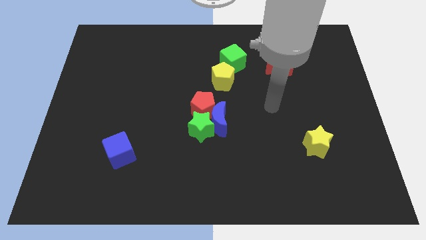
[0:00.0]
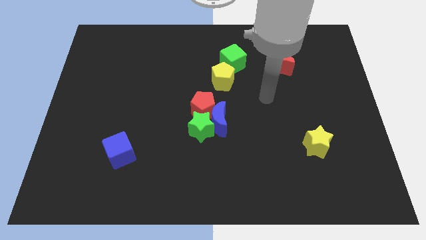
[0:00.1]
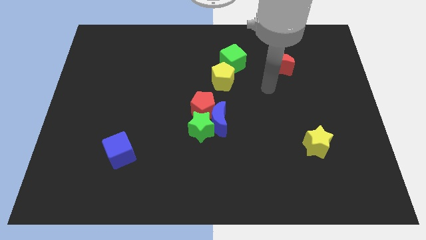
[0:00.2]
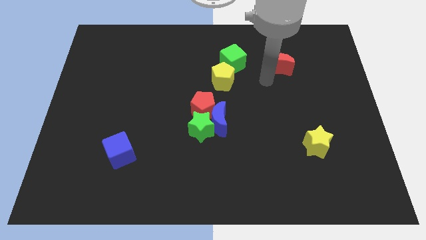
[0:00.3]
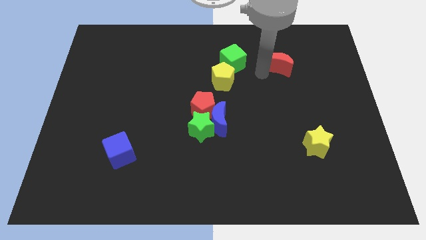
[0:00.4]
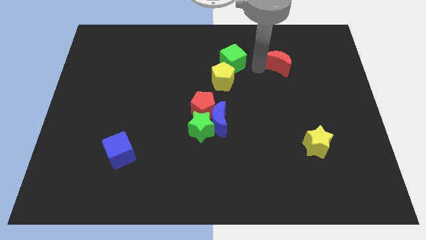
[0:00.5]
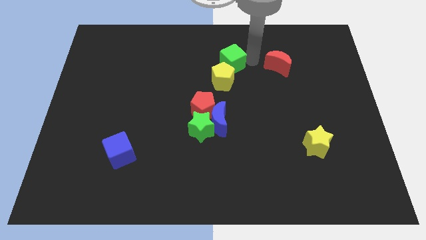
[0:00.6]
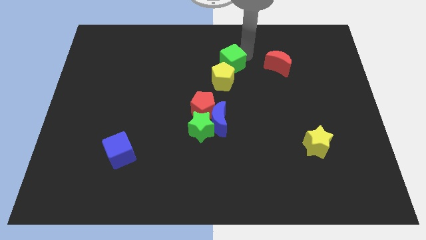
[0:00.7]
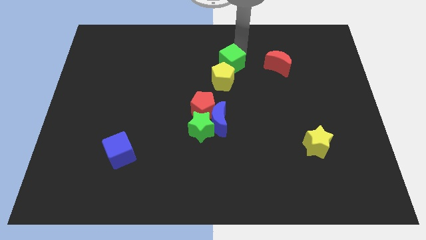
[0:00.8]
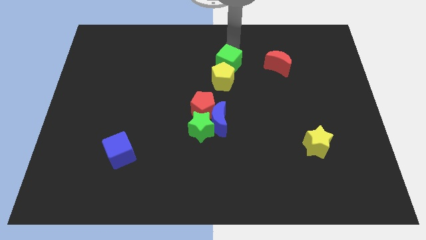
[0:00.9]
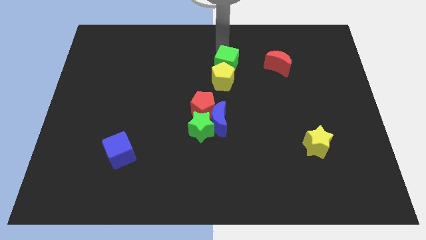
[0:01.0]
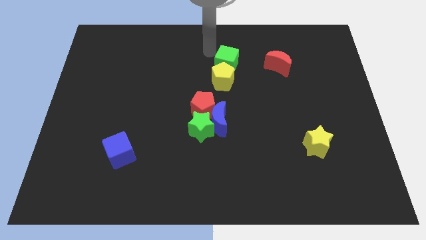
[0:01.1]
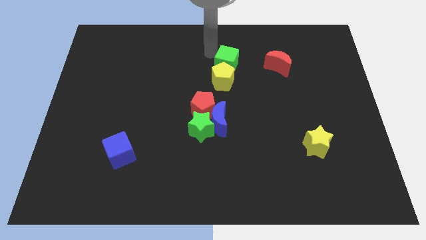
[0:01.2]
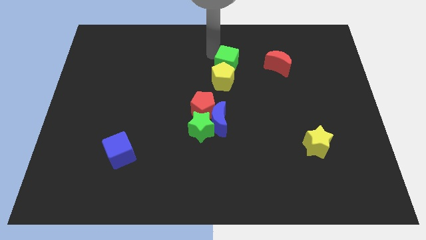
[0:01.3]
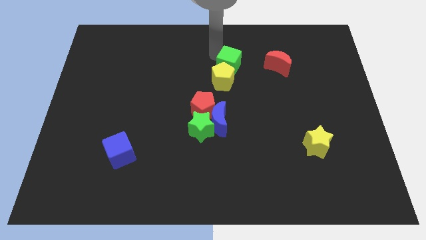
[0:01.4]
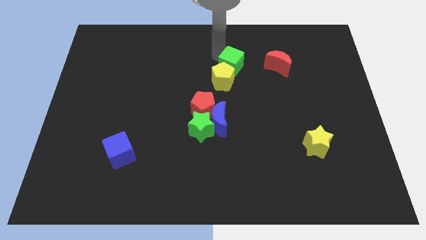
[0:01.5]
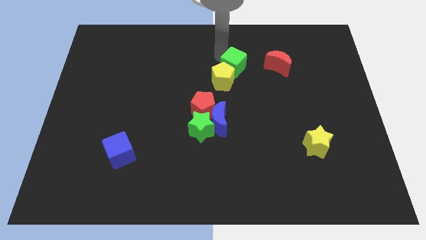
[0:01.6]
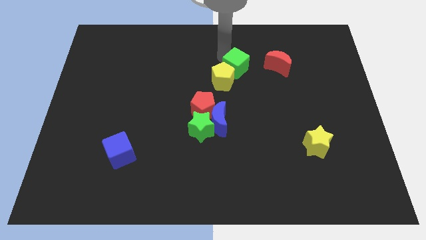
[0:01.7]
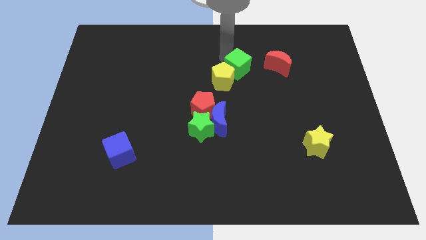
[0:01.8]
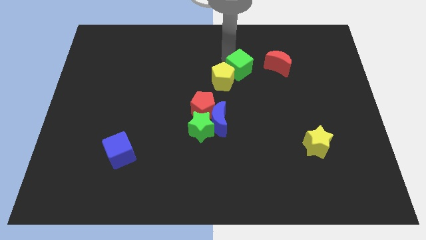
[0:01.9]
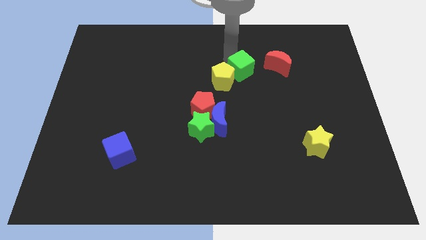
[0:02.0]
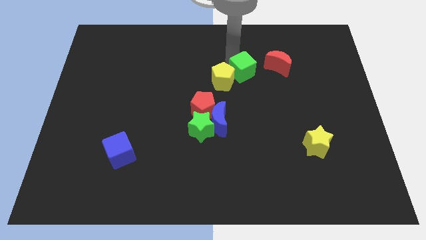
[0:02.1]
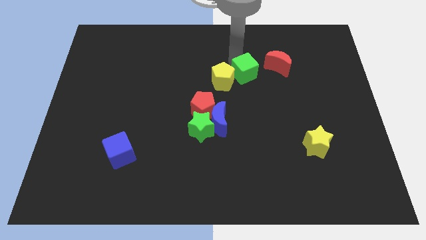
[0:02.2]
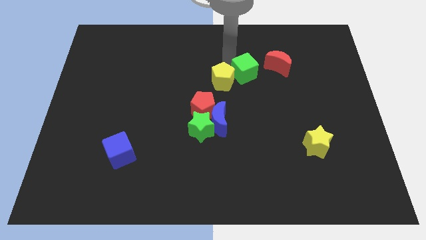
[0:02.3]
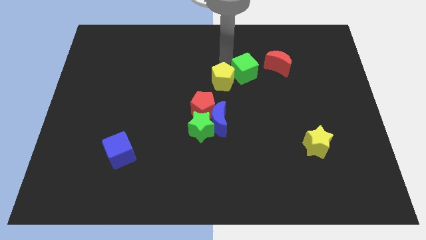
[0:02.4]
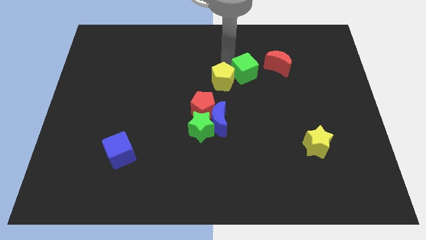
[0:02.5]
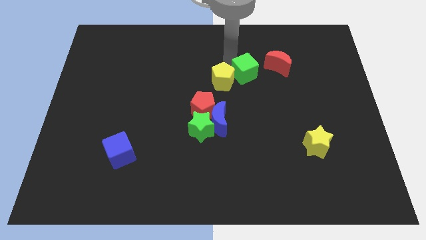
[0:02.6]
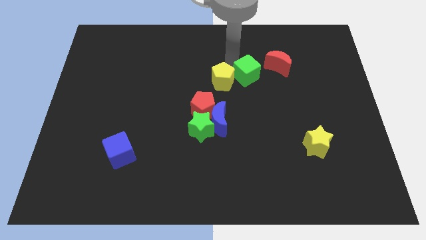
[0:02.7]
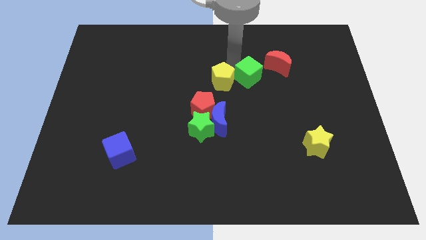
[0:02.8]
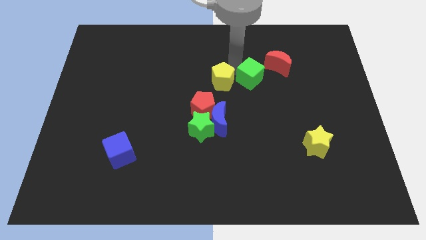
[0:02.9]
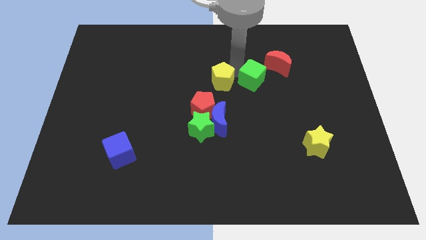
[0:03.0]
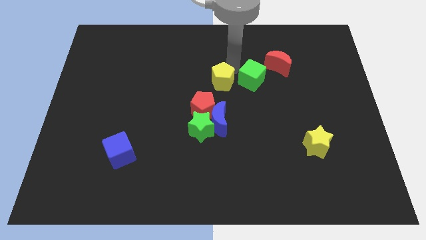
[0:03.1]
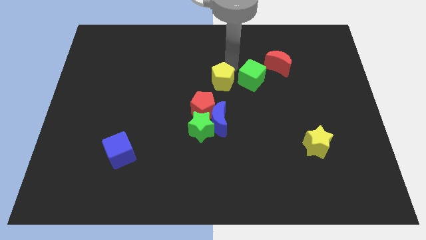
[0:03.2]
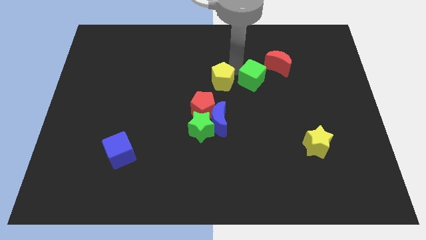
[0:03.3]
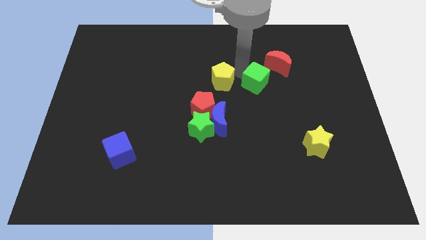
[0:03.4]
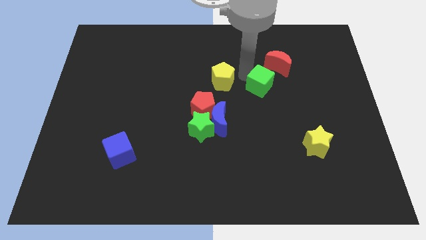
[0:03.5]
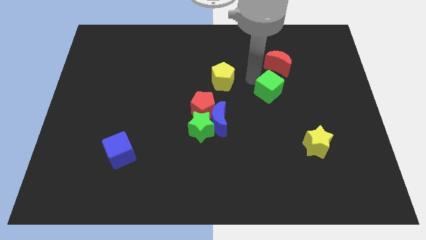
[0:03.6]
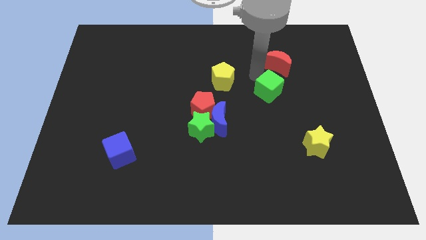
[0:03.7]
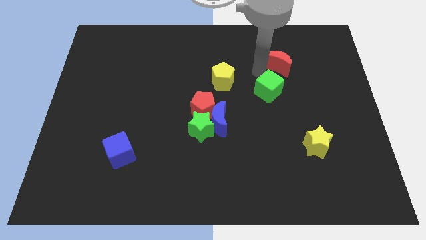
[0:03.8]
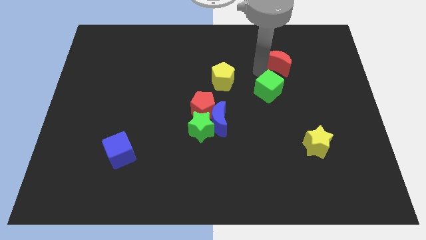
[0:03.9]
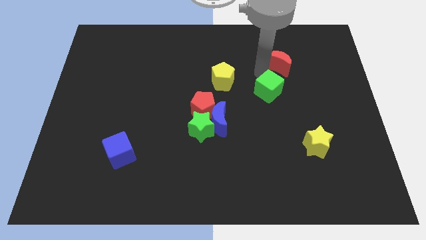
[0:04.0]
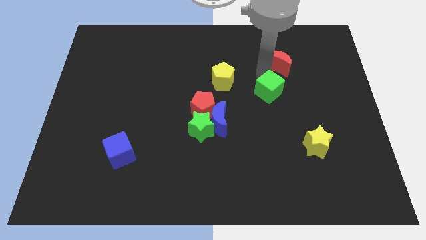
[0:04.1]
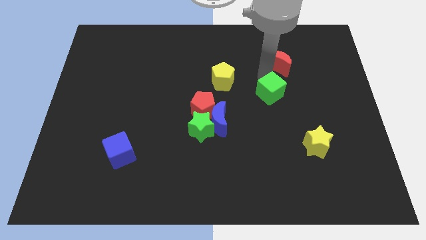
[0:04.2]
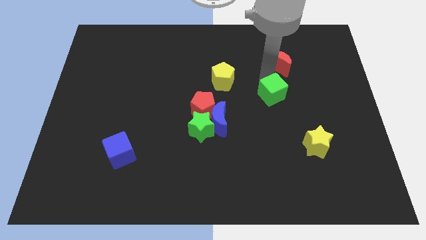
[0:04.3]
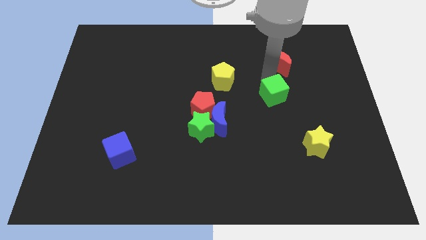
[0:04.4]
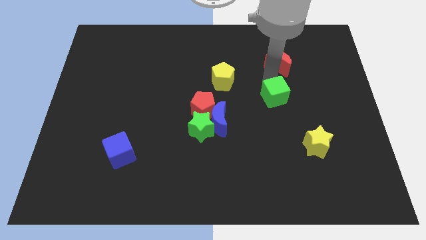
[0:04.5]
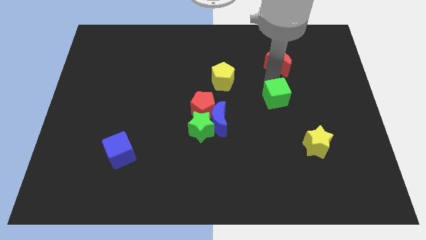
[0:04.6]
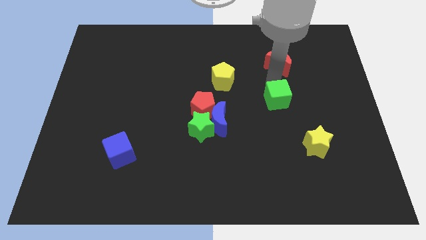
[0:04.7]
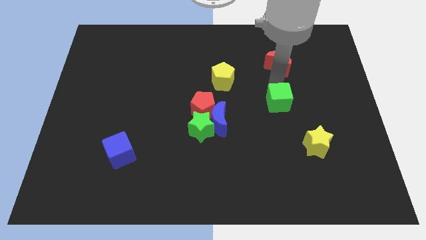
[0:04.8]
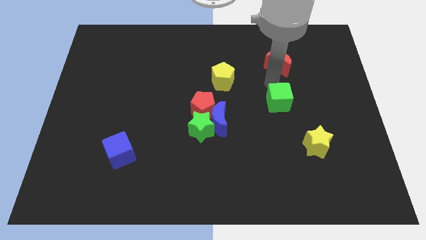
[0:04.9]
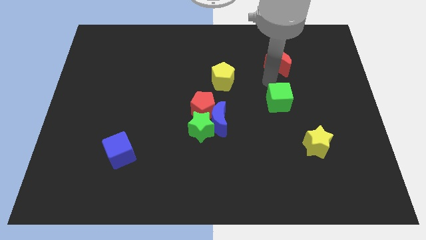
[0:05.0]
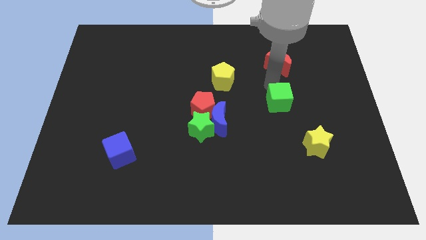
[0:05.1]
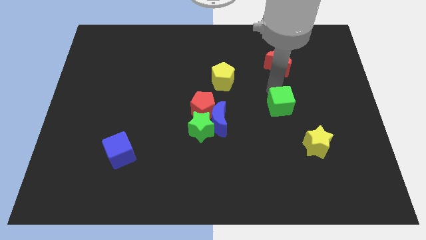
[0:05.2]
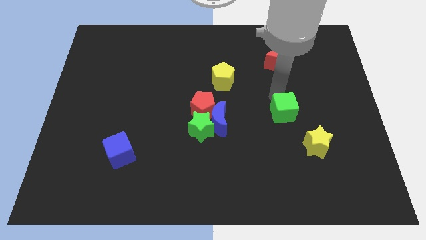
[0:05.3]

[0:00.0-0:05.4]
move the green cube to the top left of the yellow star

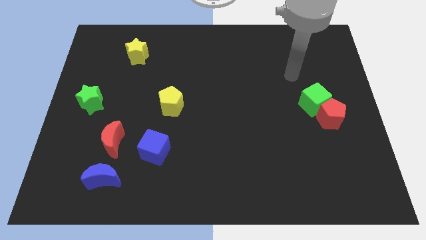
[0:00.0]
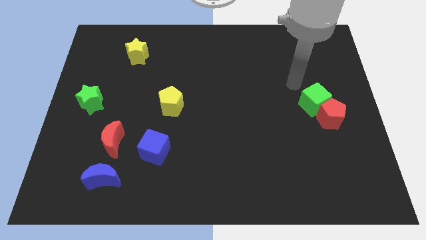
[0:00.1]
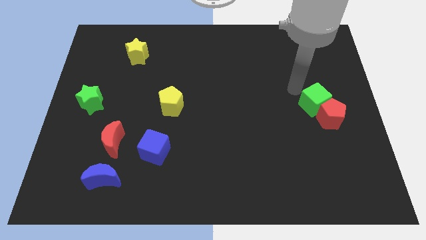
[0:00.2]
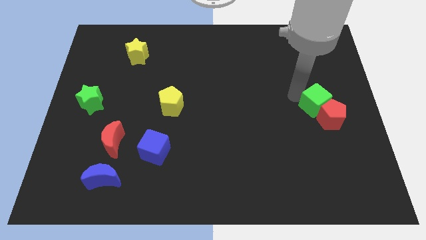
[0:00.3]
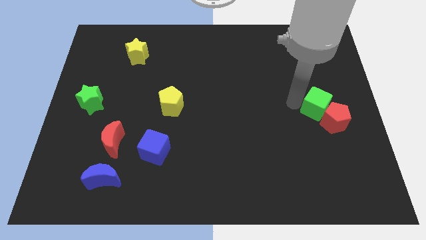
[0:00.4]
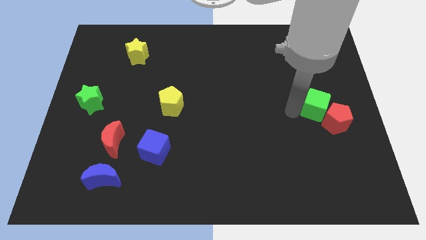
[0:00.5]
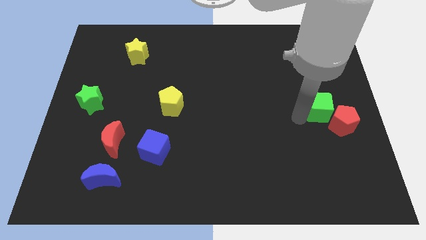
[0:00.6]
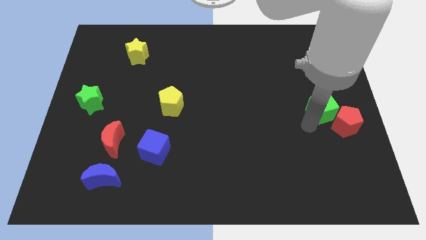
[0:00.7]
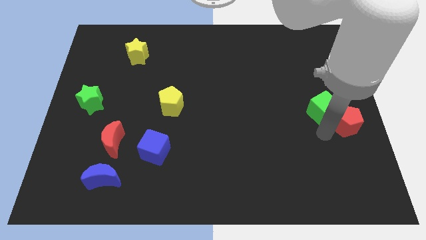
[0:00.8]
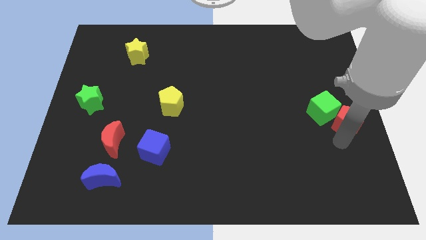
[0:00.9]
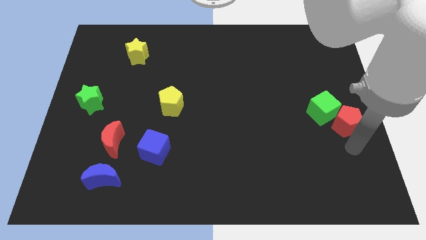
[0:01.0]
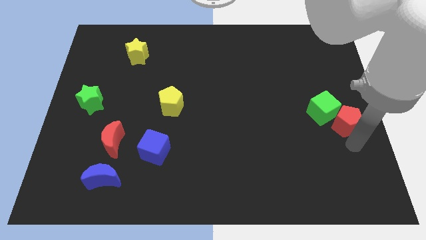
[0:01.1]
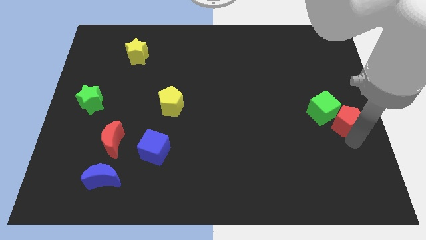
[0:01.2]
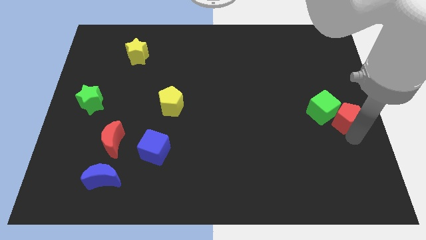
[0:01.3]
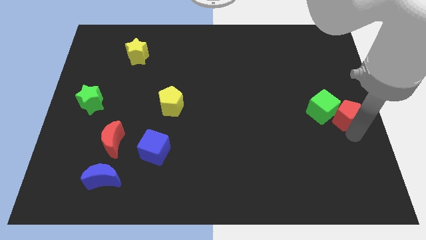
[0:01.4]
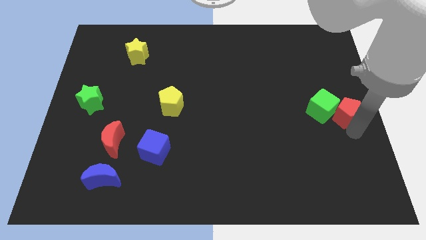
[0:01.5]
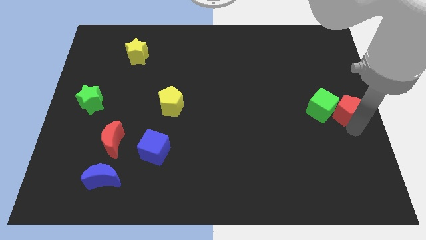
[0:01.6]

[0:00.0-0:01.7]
put the red pentagon to the top right side of the green cube

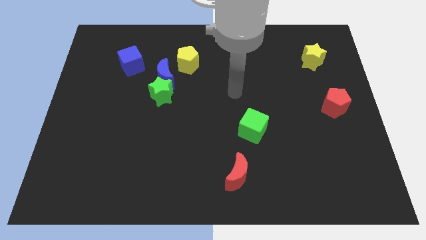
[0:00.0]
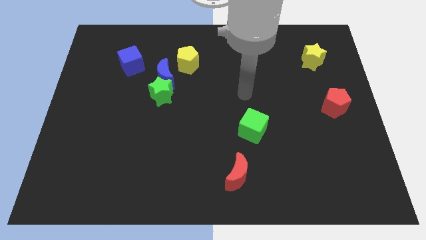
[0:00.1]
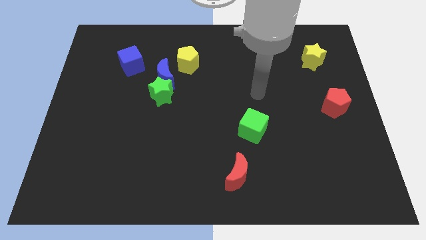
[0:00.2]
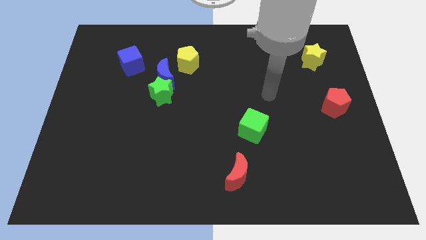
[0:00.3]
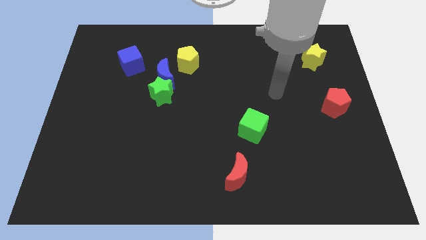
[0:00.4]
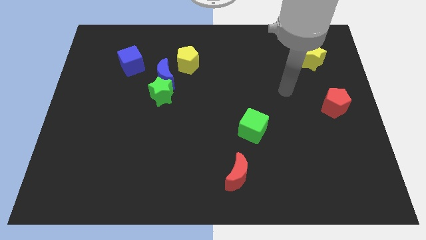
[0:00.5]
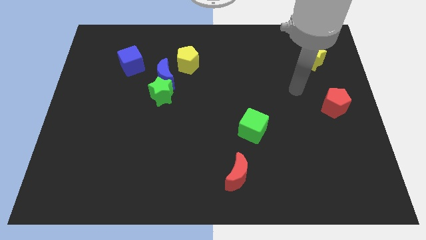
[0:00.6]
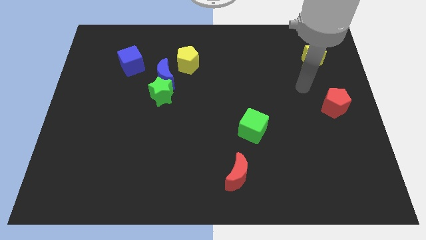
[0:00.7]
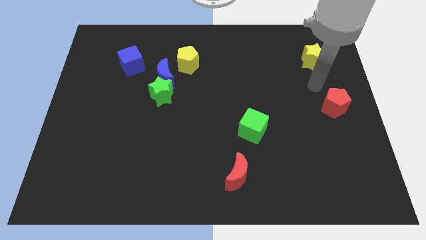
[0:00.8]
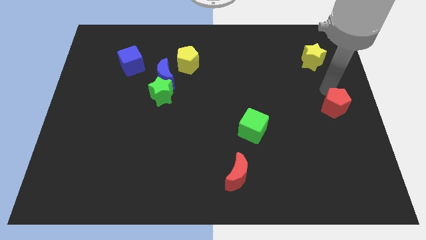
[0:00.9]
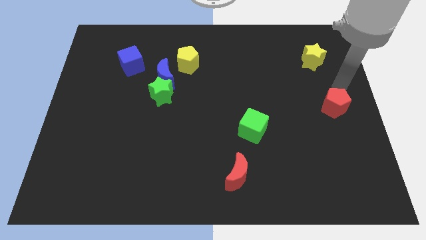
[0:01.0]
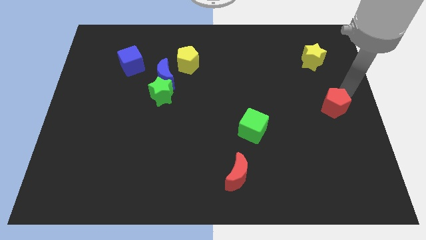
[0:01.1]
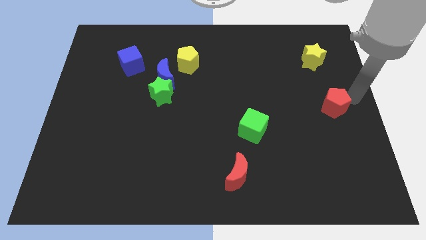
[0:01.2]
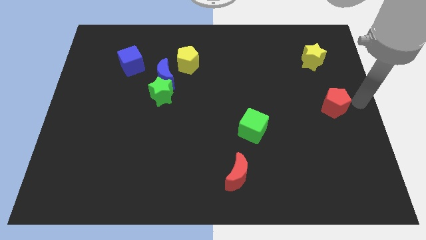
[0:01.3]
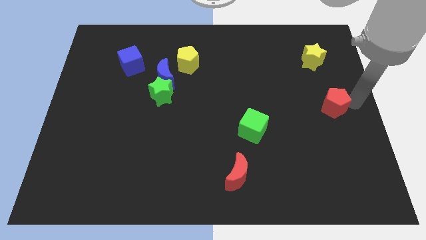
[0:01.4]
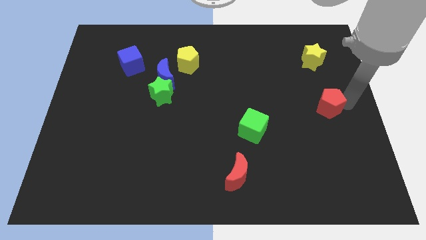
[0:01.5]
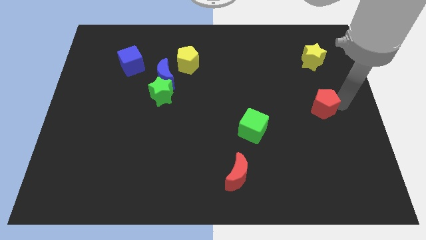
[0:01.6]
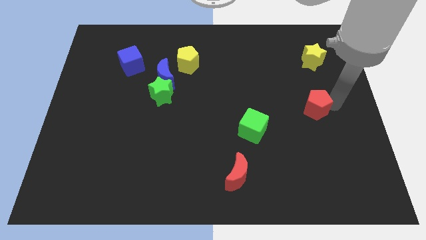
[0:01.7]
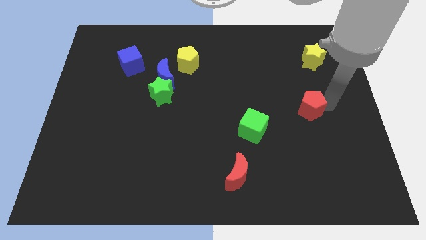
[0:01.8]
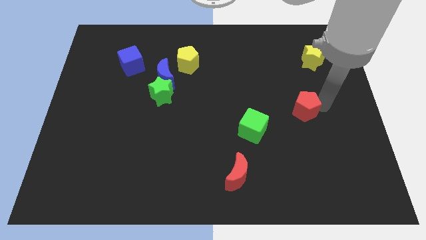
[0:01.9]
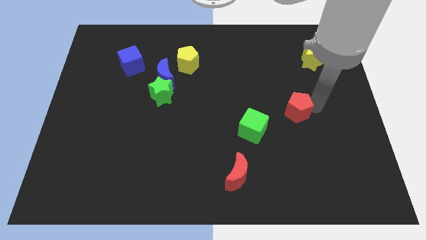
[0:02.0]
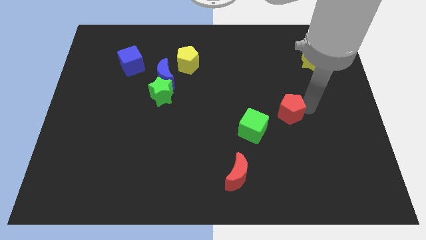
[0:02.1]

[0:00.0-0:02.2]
put the red pentagon to the top right of the green cube
